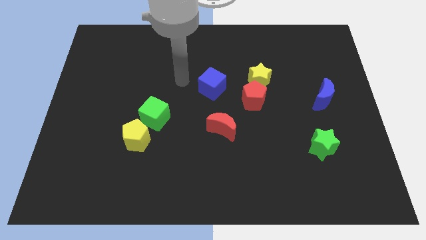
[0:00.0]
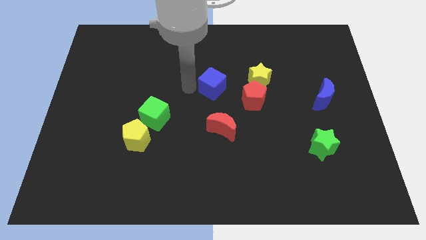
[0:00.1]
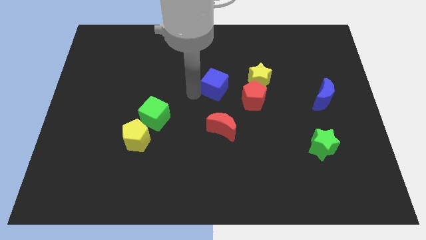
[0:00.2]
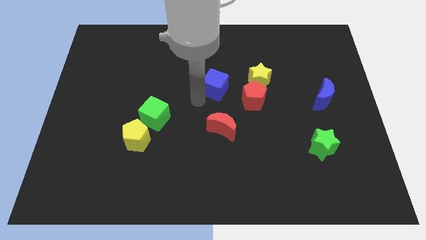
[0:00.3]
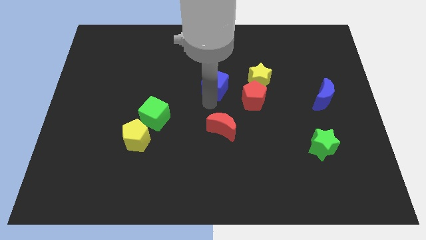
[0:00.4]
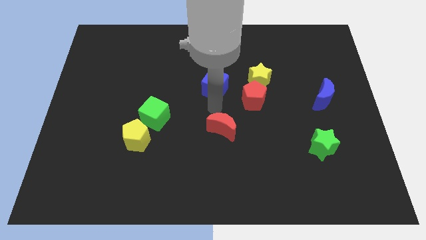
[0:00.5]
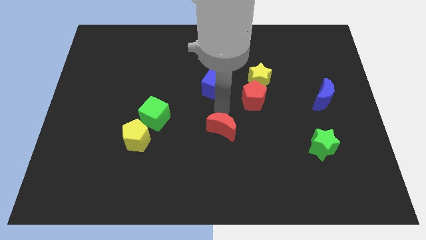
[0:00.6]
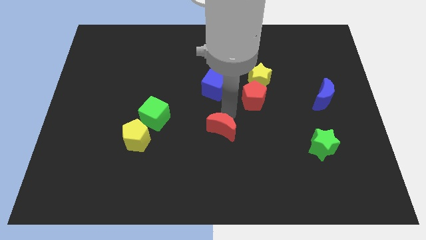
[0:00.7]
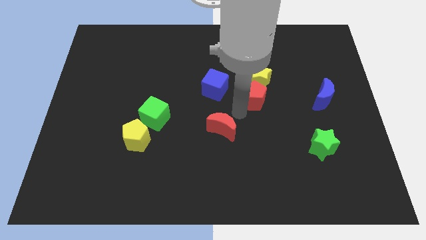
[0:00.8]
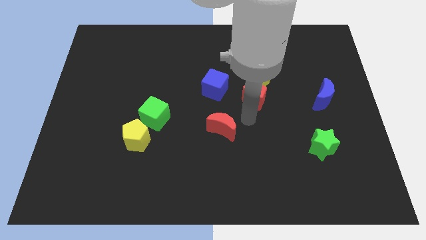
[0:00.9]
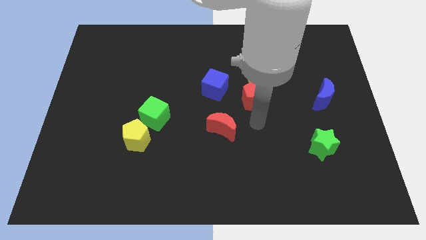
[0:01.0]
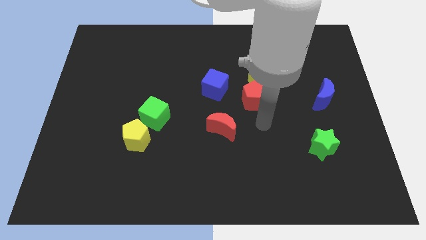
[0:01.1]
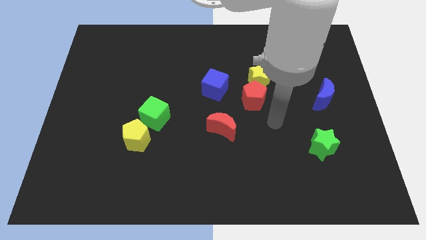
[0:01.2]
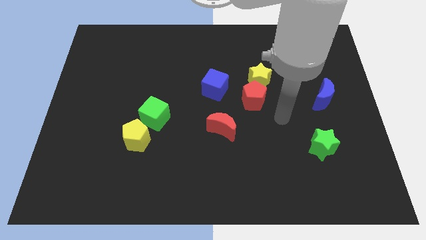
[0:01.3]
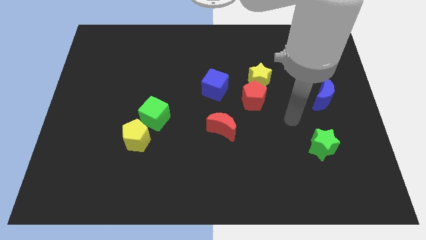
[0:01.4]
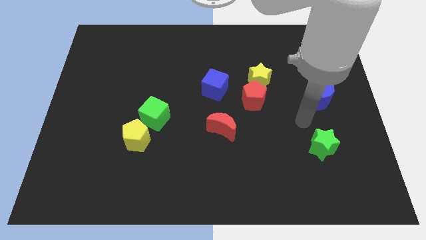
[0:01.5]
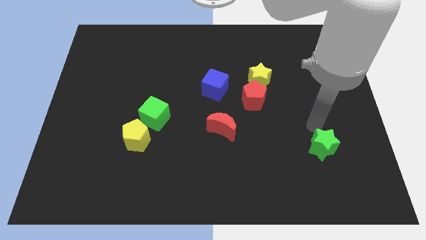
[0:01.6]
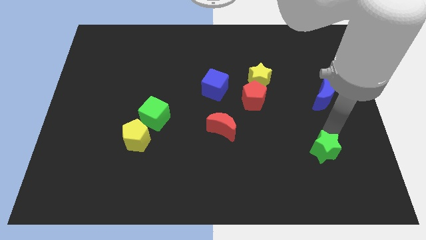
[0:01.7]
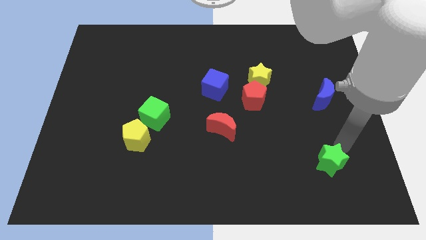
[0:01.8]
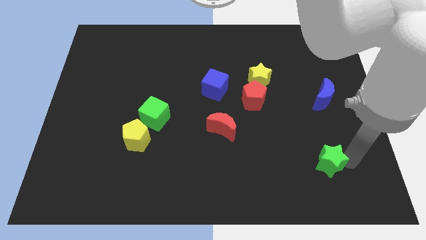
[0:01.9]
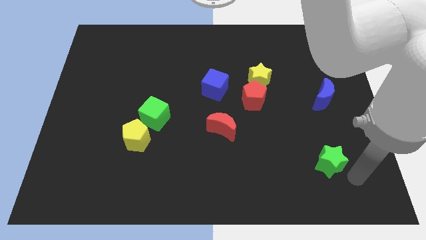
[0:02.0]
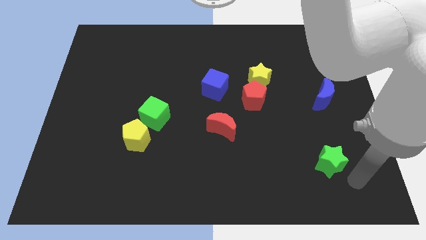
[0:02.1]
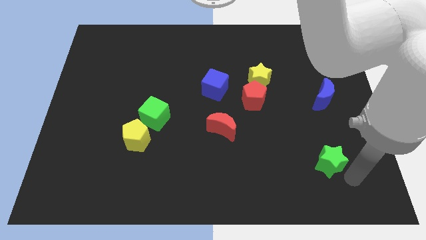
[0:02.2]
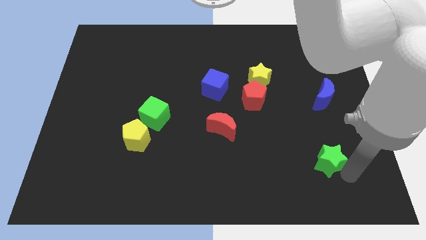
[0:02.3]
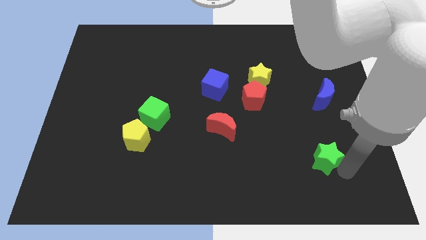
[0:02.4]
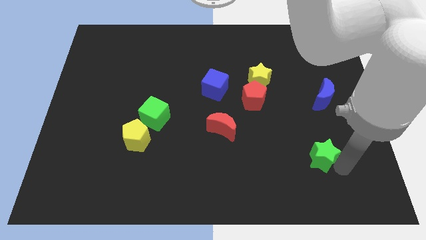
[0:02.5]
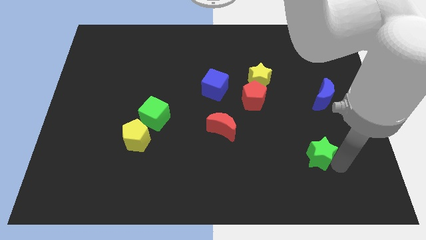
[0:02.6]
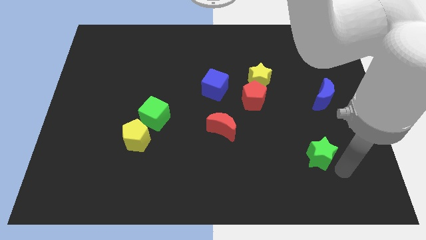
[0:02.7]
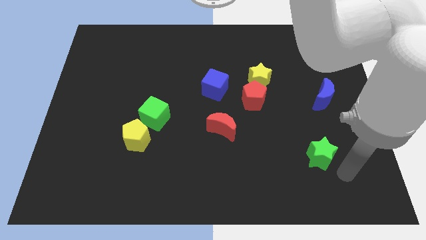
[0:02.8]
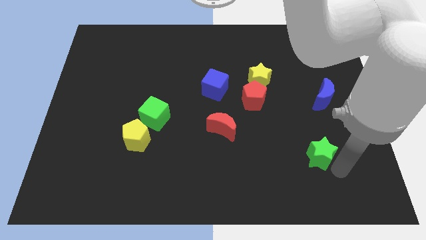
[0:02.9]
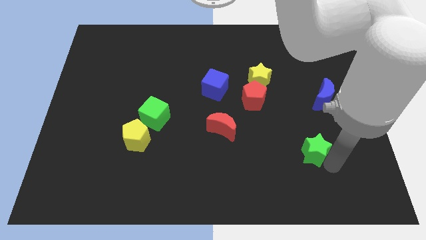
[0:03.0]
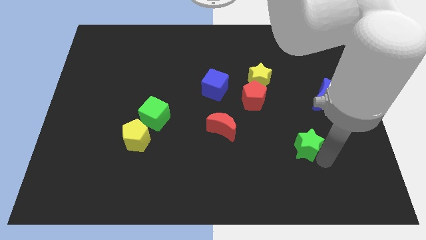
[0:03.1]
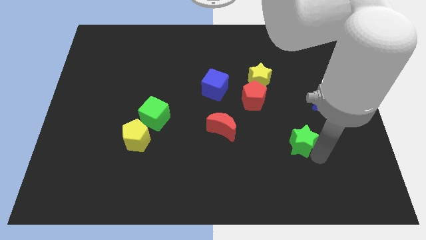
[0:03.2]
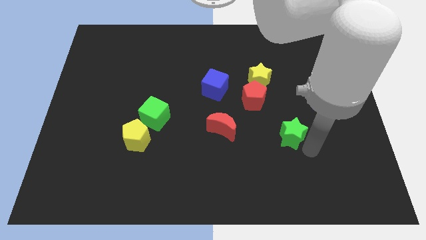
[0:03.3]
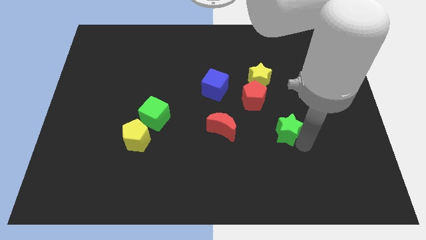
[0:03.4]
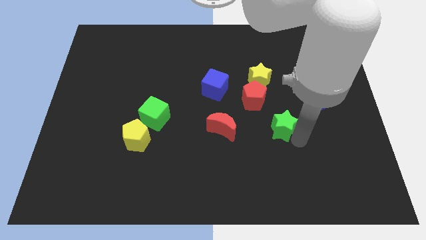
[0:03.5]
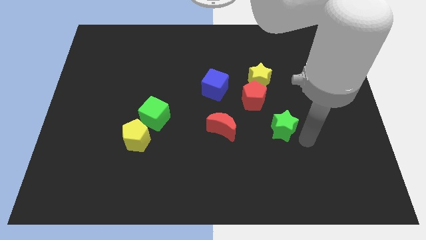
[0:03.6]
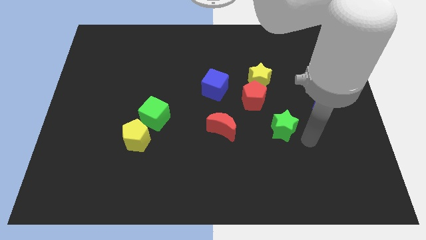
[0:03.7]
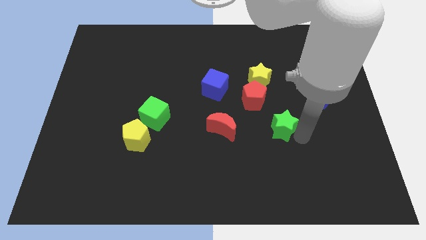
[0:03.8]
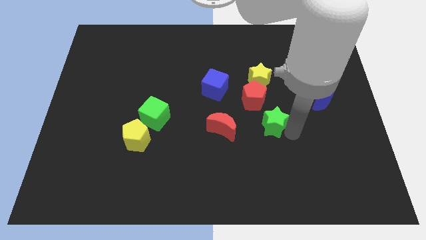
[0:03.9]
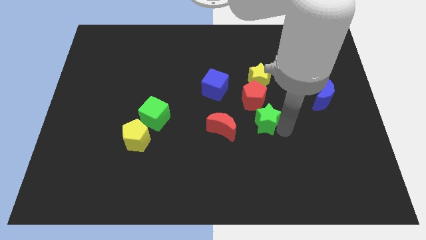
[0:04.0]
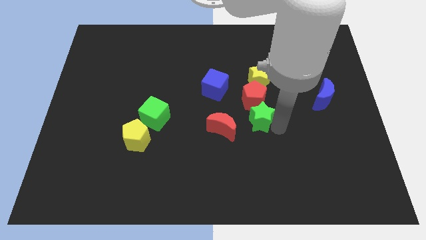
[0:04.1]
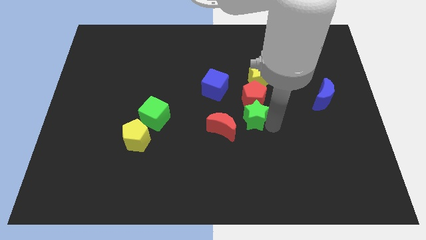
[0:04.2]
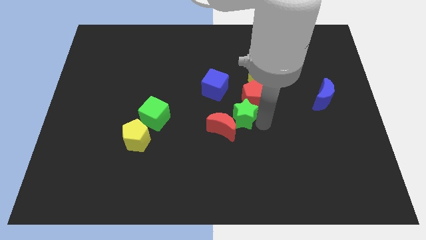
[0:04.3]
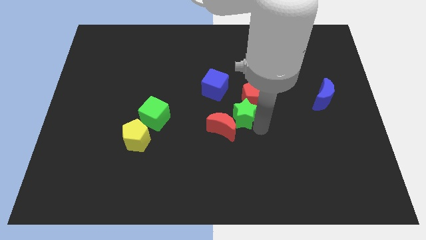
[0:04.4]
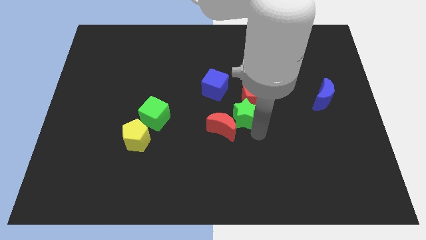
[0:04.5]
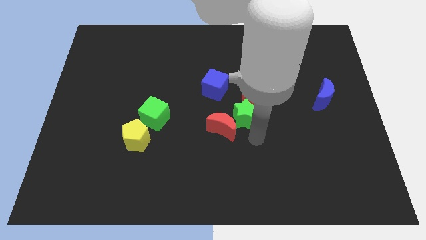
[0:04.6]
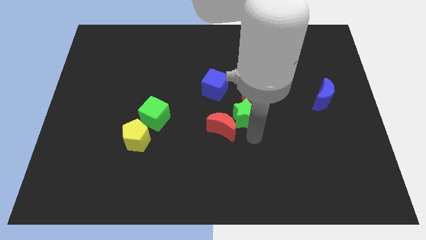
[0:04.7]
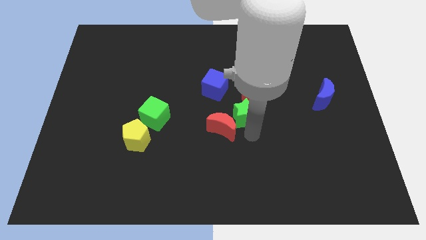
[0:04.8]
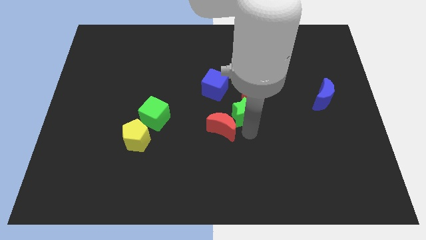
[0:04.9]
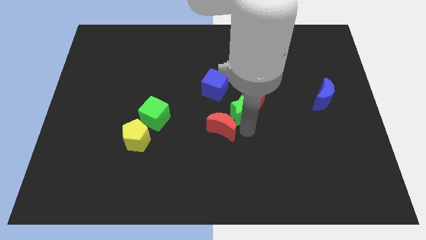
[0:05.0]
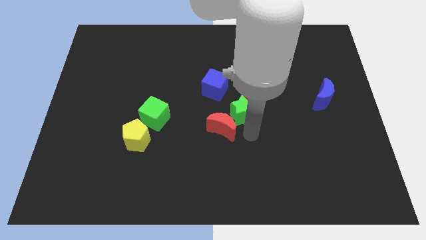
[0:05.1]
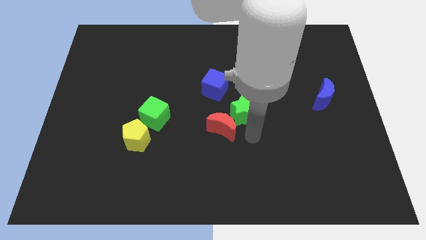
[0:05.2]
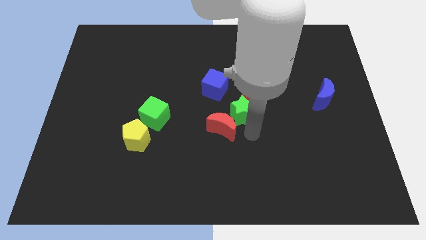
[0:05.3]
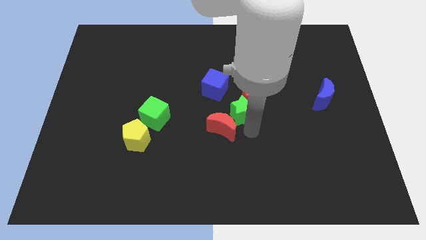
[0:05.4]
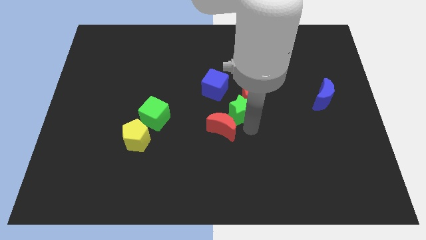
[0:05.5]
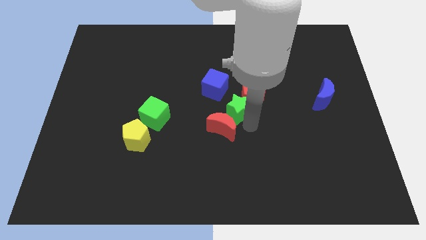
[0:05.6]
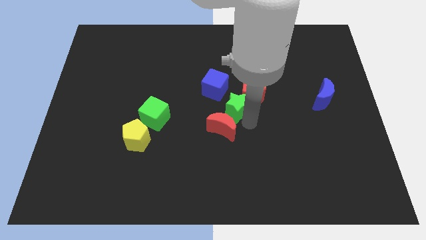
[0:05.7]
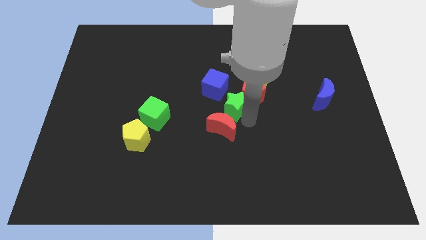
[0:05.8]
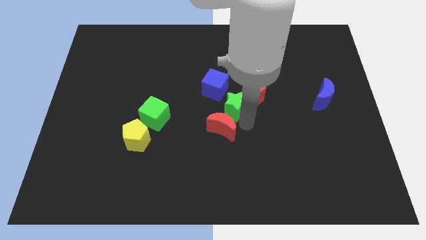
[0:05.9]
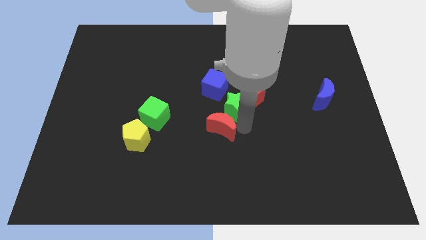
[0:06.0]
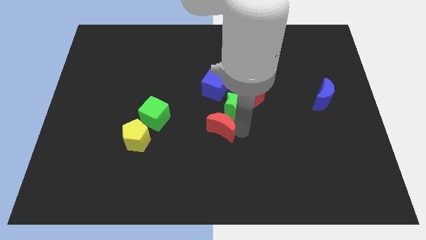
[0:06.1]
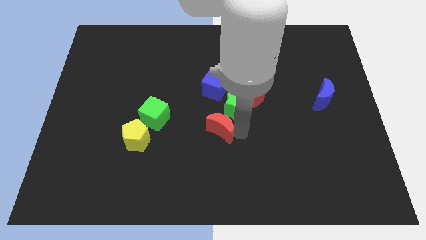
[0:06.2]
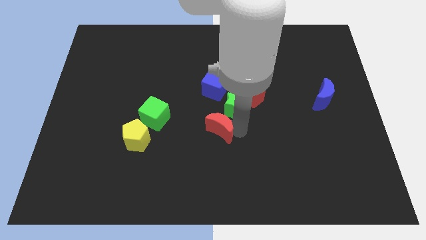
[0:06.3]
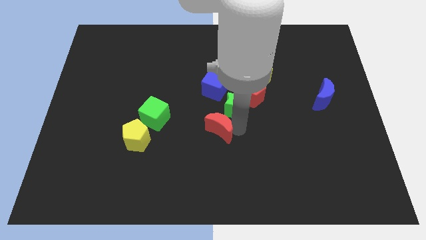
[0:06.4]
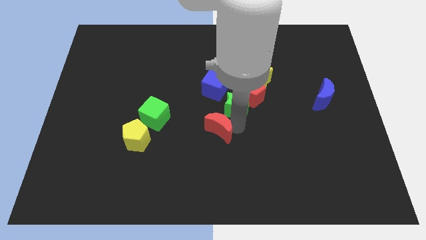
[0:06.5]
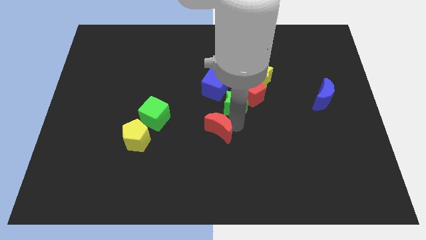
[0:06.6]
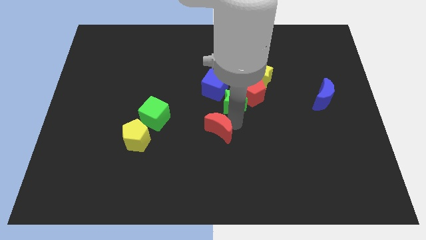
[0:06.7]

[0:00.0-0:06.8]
move the green star upwards and to the left diagonally

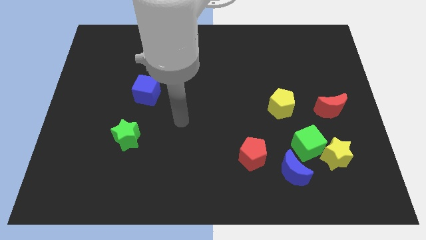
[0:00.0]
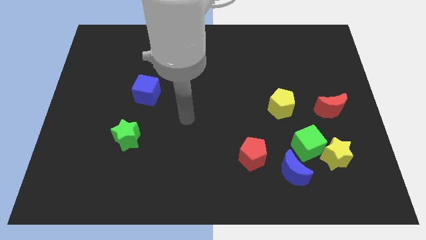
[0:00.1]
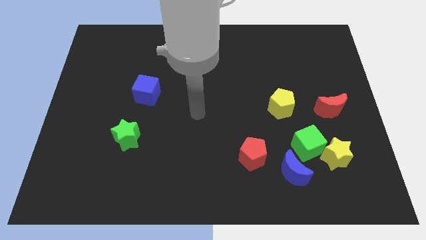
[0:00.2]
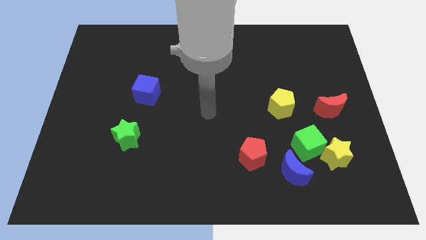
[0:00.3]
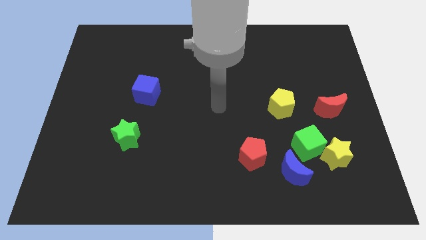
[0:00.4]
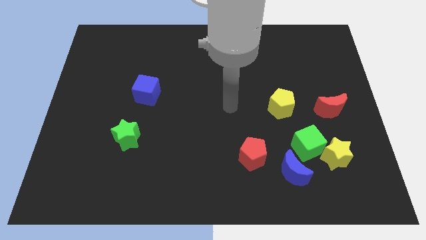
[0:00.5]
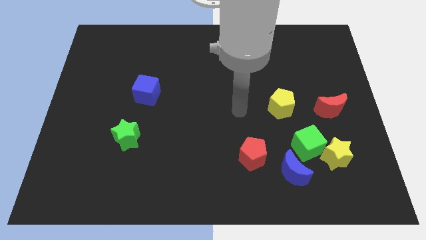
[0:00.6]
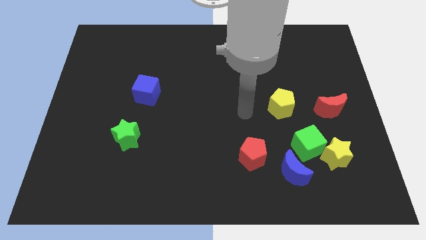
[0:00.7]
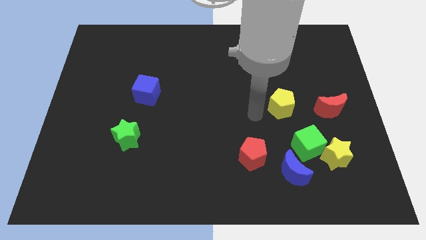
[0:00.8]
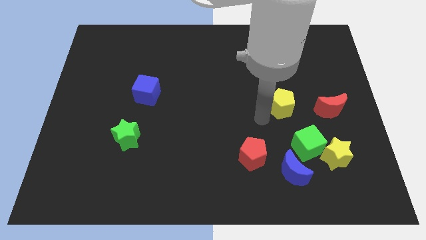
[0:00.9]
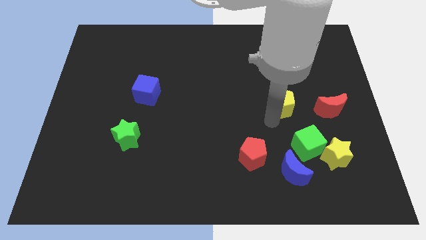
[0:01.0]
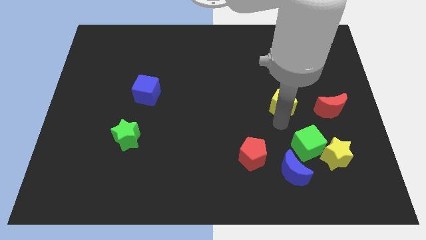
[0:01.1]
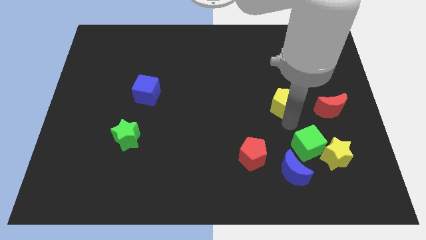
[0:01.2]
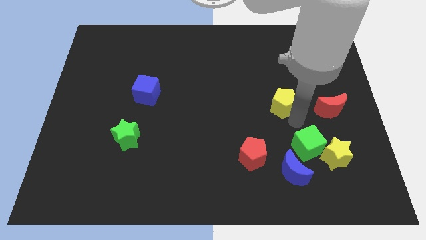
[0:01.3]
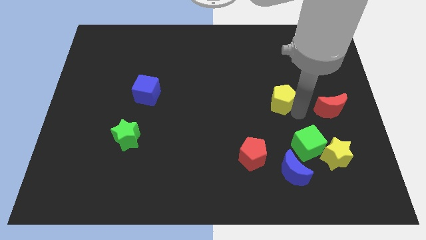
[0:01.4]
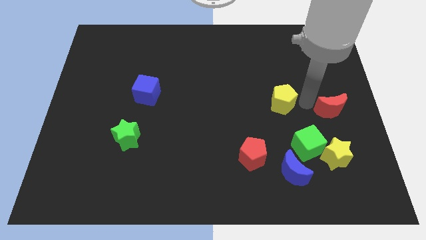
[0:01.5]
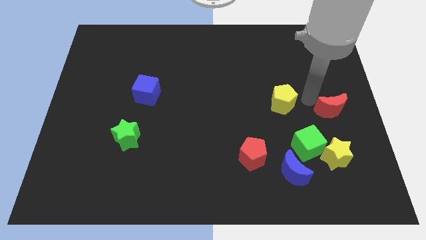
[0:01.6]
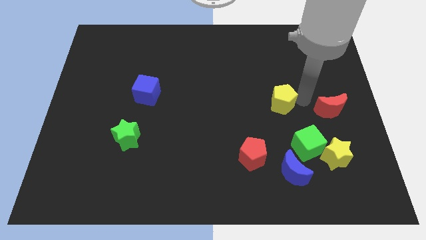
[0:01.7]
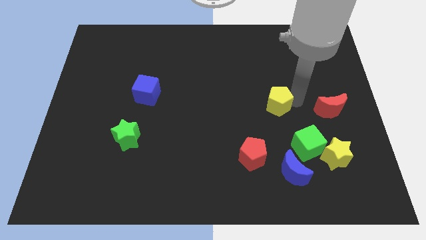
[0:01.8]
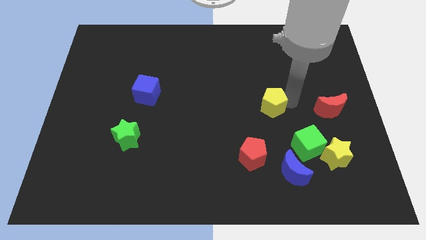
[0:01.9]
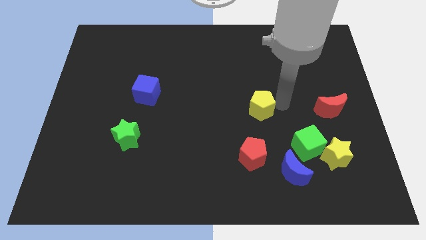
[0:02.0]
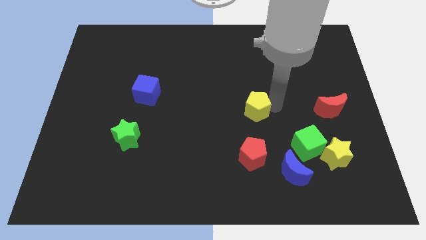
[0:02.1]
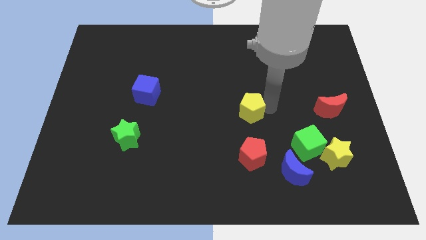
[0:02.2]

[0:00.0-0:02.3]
slightly slide the yellow pentagon left
